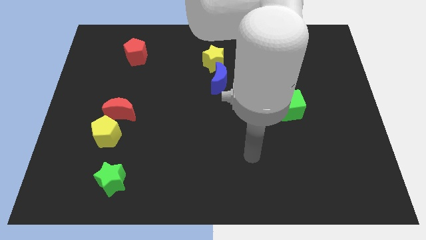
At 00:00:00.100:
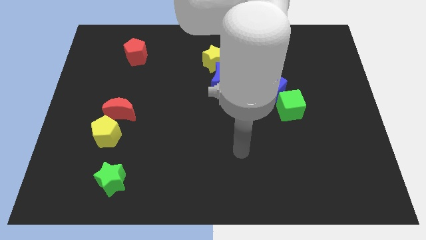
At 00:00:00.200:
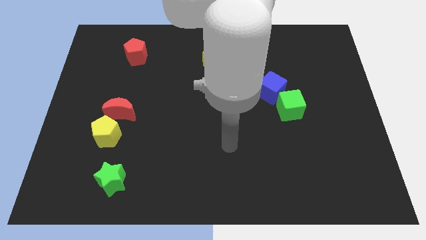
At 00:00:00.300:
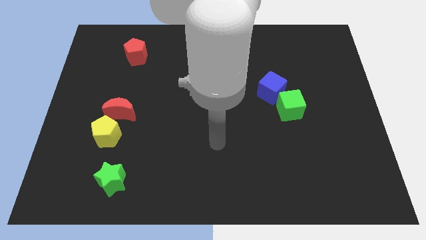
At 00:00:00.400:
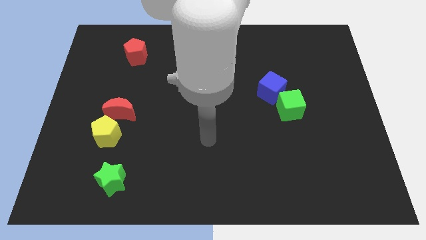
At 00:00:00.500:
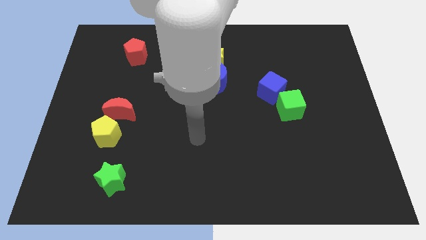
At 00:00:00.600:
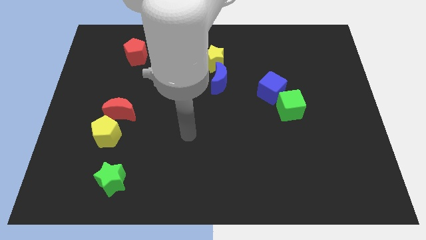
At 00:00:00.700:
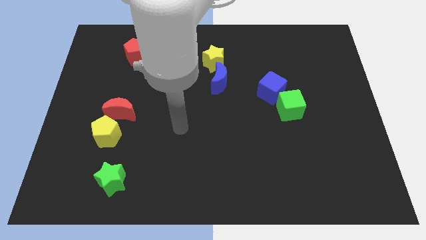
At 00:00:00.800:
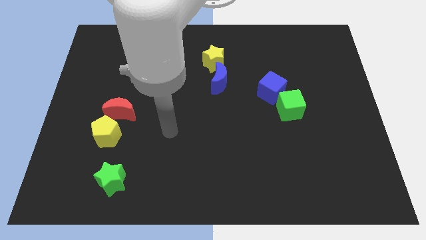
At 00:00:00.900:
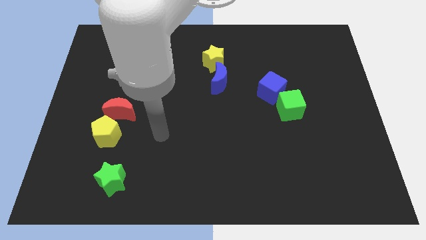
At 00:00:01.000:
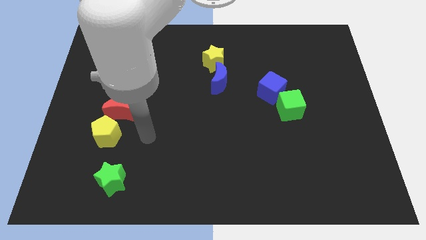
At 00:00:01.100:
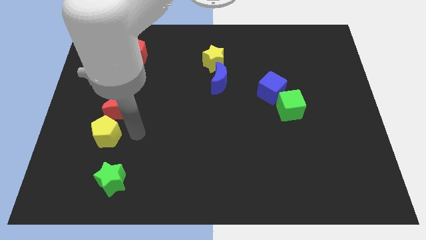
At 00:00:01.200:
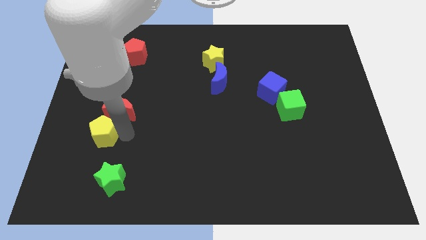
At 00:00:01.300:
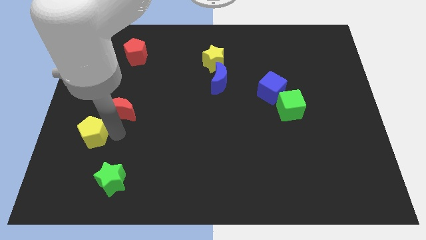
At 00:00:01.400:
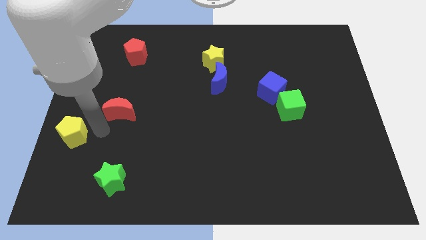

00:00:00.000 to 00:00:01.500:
move the red moon away from the yellow pentagon

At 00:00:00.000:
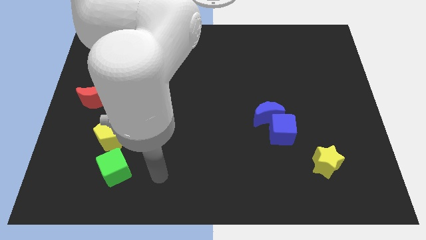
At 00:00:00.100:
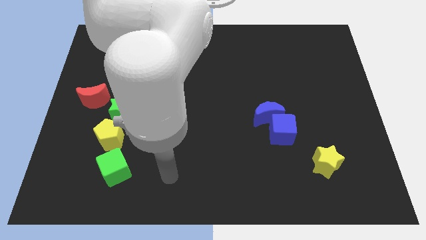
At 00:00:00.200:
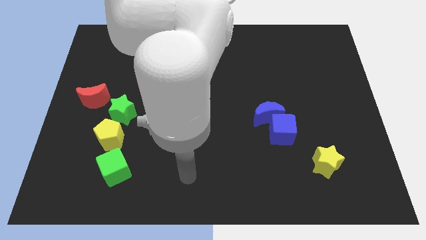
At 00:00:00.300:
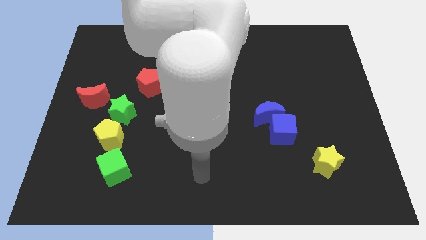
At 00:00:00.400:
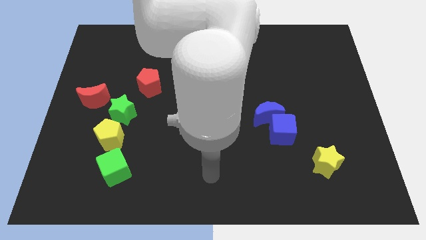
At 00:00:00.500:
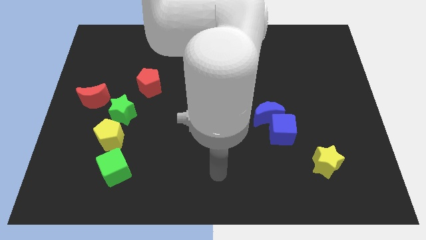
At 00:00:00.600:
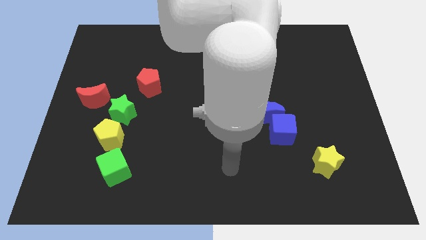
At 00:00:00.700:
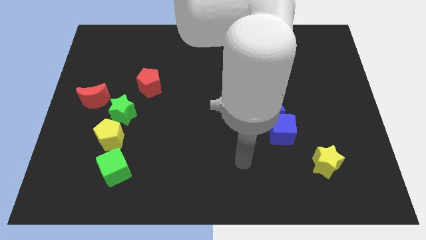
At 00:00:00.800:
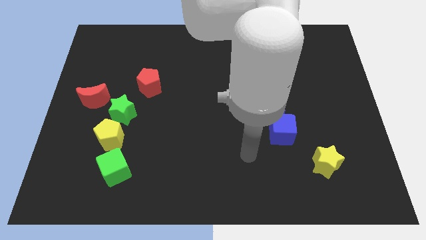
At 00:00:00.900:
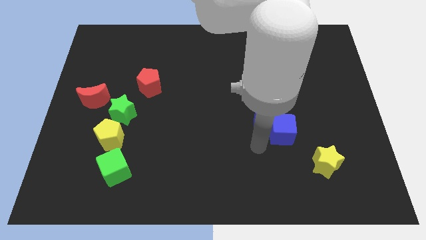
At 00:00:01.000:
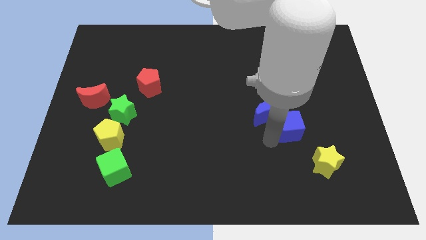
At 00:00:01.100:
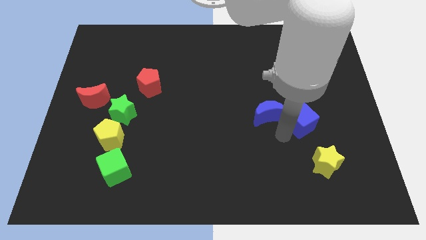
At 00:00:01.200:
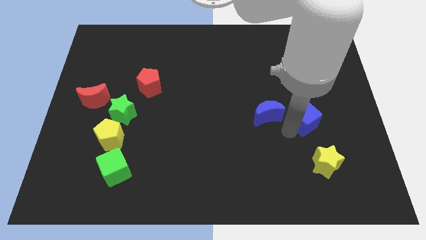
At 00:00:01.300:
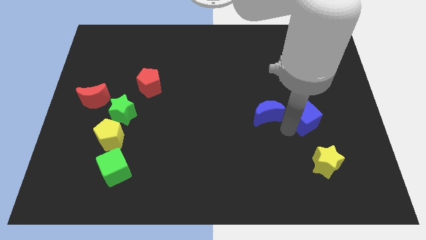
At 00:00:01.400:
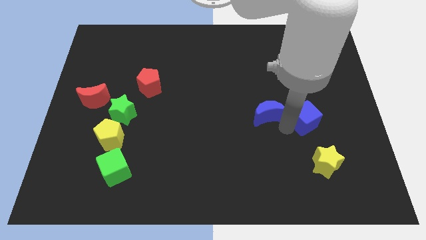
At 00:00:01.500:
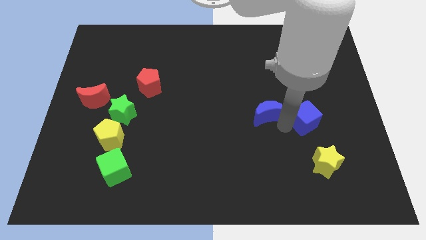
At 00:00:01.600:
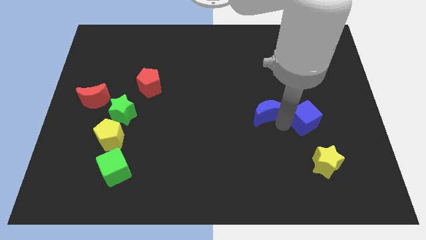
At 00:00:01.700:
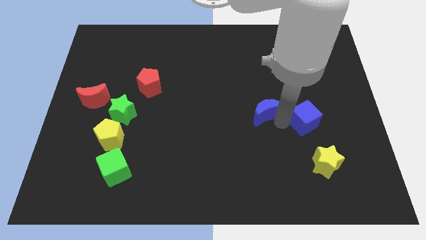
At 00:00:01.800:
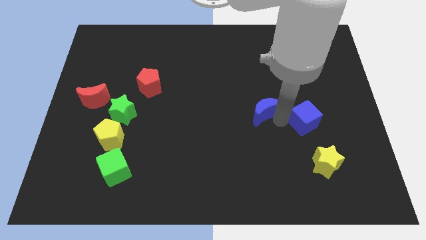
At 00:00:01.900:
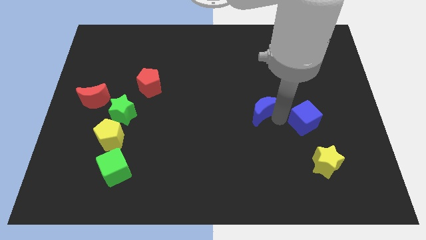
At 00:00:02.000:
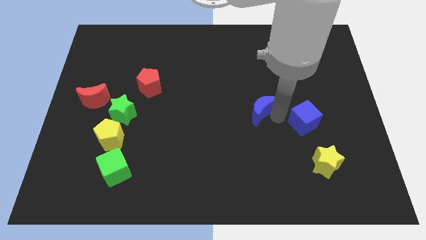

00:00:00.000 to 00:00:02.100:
pull the blue moon apart from the blue cube

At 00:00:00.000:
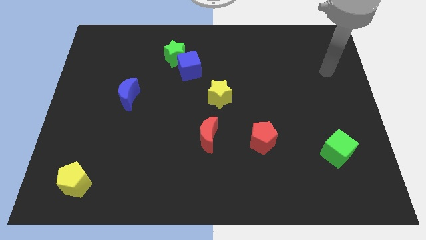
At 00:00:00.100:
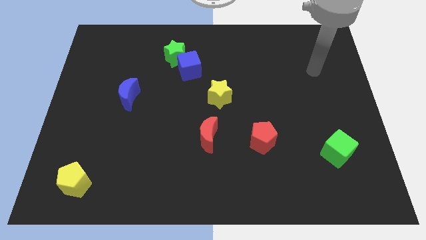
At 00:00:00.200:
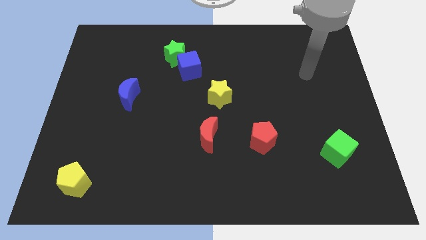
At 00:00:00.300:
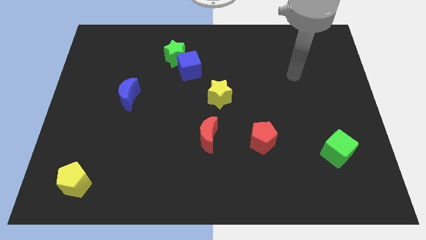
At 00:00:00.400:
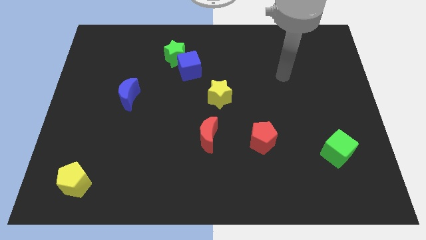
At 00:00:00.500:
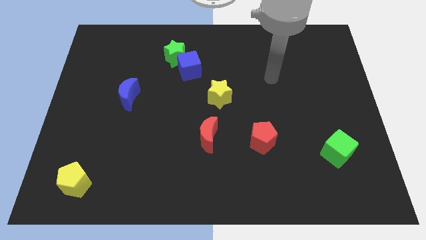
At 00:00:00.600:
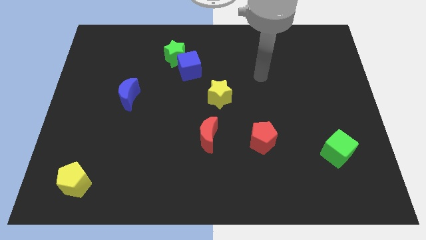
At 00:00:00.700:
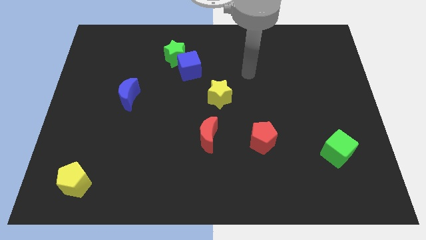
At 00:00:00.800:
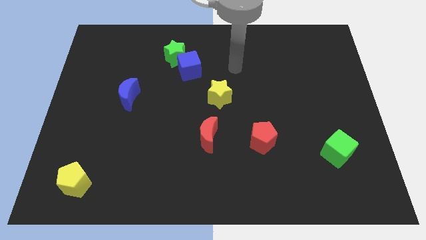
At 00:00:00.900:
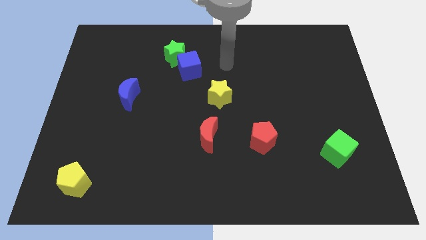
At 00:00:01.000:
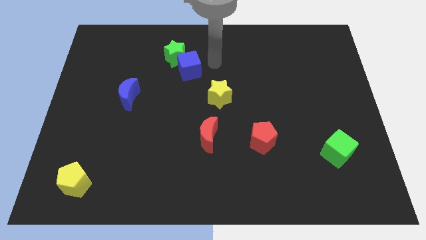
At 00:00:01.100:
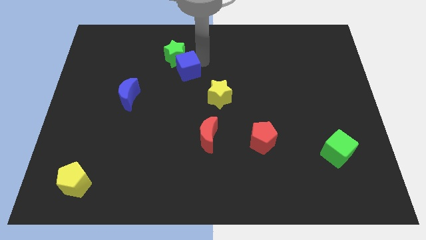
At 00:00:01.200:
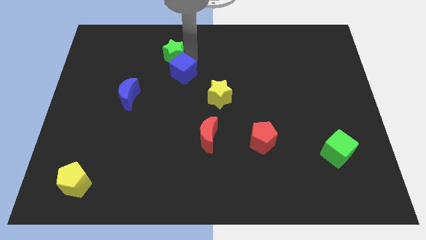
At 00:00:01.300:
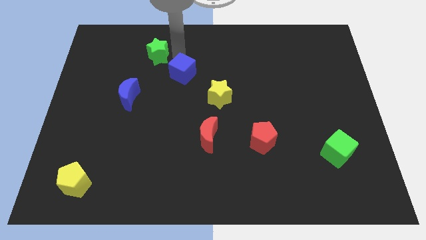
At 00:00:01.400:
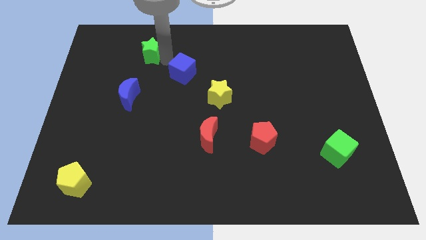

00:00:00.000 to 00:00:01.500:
separate the blue cube from the green star

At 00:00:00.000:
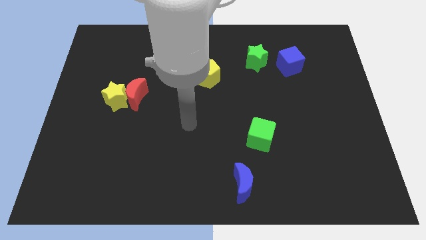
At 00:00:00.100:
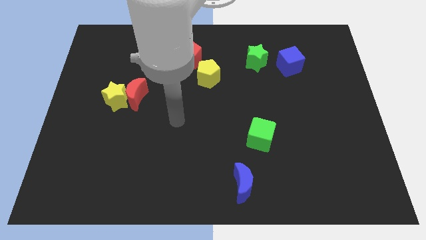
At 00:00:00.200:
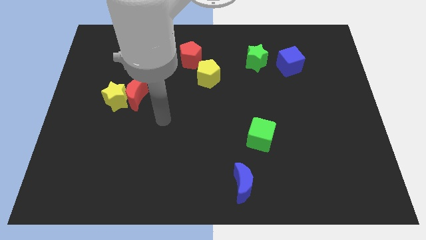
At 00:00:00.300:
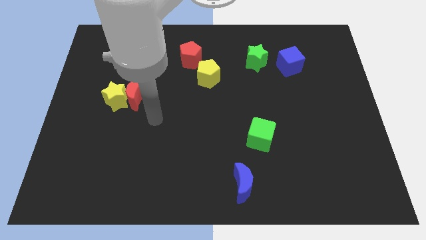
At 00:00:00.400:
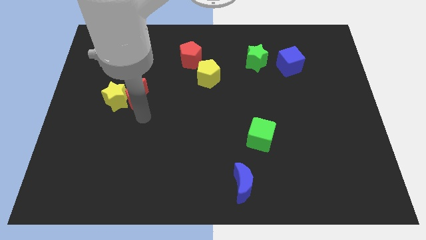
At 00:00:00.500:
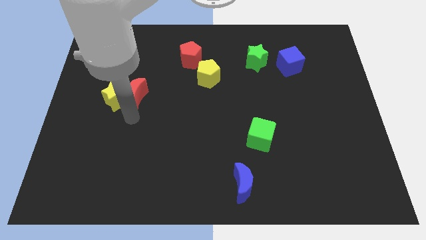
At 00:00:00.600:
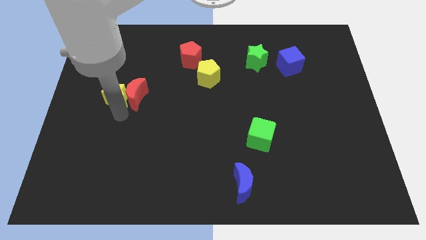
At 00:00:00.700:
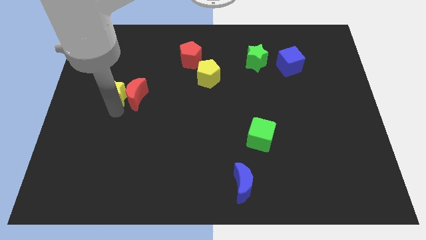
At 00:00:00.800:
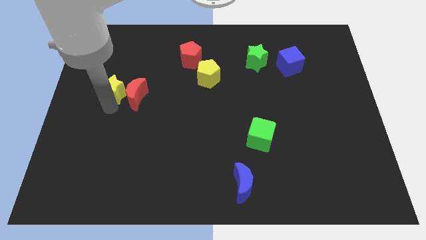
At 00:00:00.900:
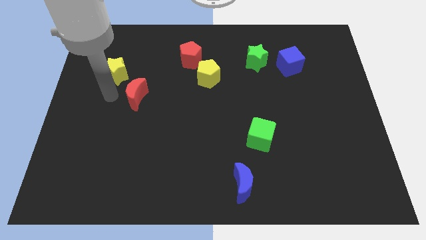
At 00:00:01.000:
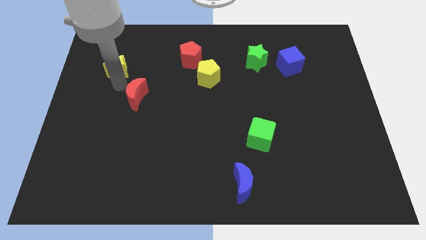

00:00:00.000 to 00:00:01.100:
move the red moon away from the yellow star

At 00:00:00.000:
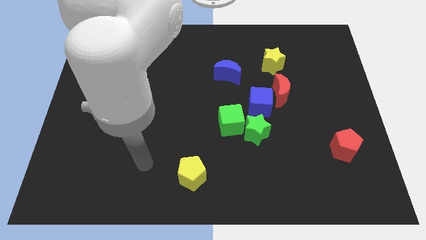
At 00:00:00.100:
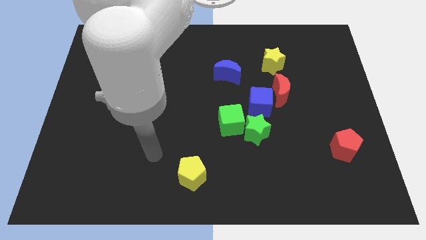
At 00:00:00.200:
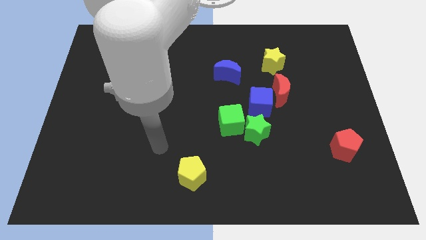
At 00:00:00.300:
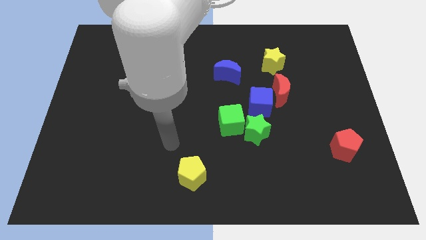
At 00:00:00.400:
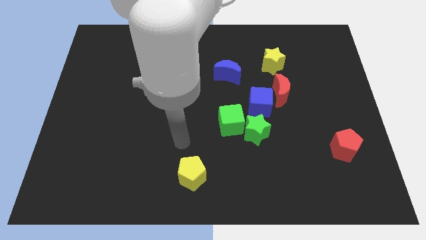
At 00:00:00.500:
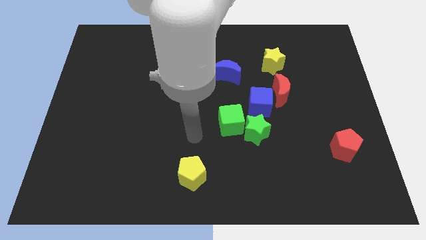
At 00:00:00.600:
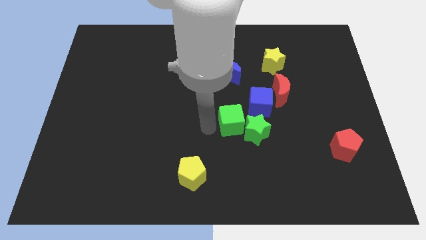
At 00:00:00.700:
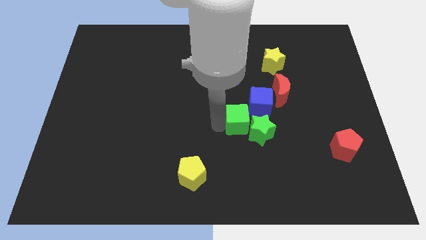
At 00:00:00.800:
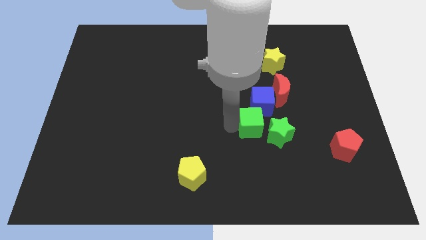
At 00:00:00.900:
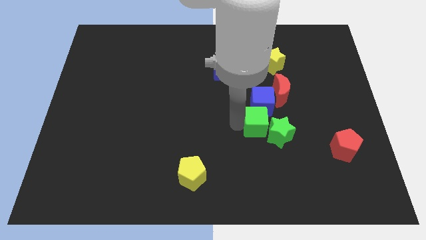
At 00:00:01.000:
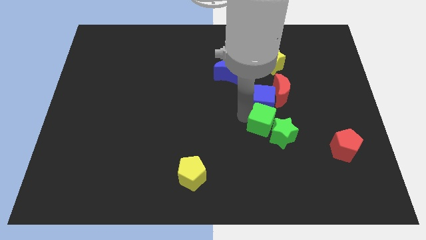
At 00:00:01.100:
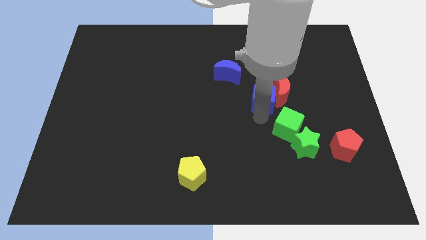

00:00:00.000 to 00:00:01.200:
move the green star away from the green cube and blue cube

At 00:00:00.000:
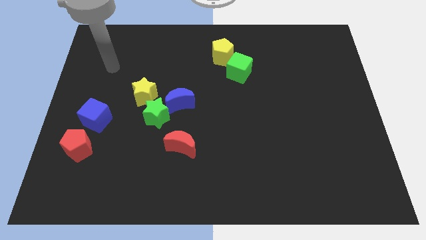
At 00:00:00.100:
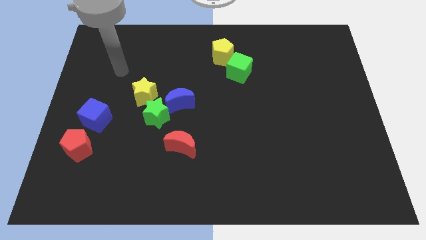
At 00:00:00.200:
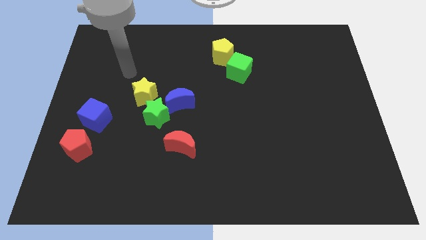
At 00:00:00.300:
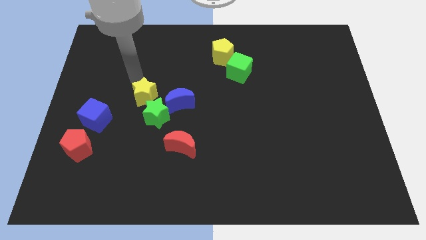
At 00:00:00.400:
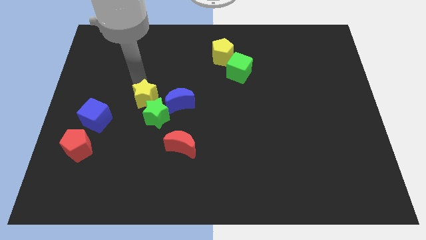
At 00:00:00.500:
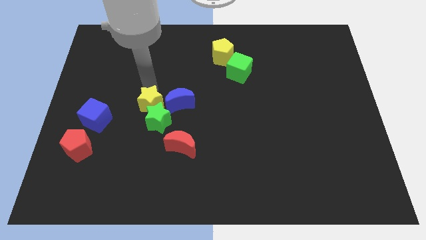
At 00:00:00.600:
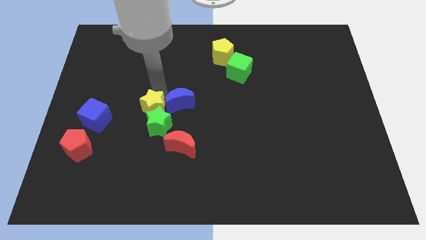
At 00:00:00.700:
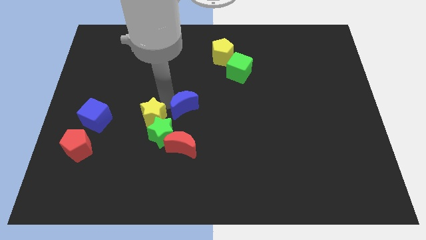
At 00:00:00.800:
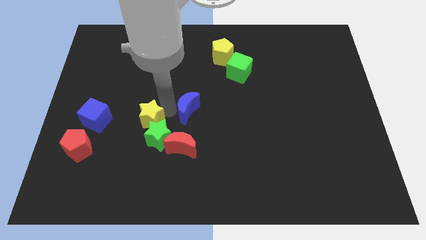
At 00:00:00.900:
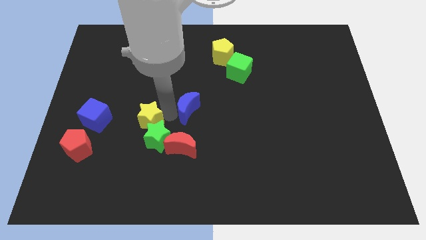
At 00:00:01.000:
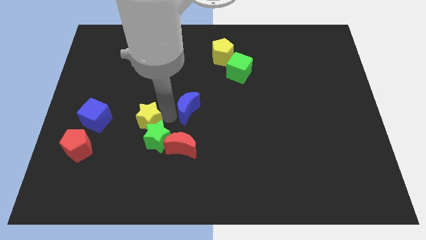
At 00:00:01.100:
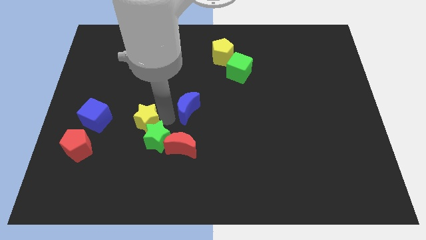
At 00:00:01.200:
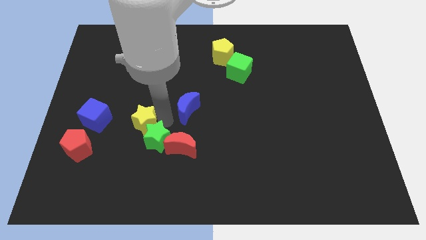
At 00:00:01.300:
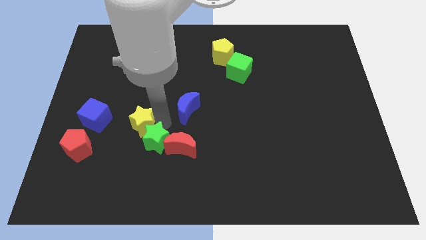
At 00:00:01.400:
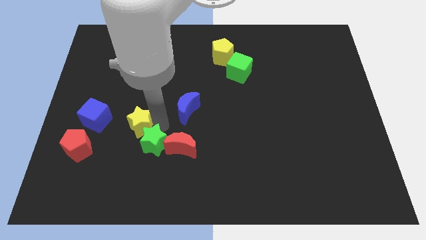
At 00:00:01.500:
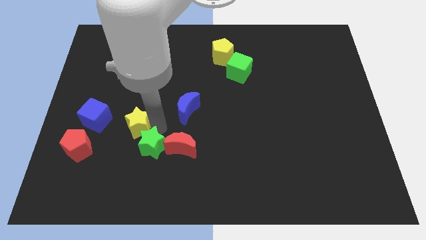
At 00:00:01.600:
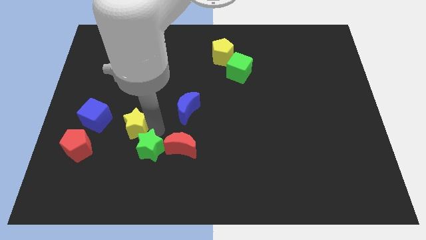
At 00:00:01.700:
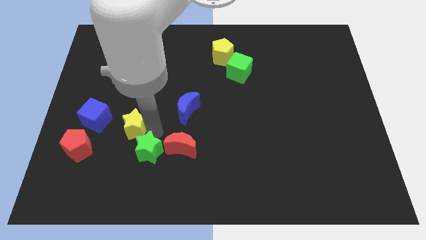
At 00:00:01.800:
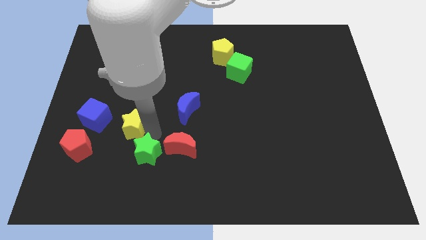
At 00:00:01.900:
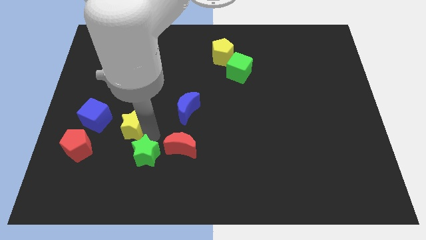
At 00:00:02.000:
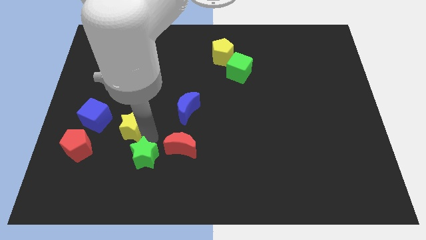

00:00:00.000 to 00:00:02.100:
separate the green star from the blue moon and yellow star
